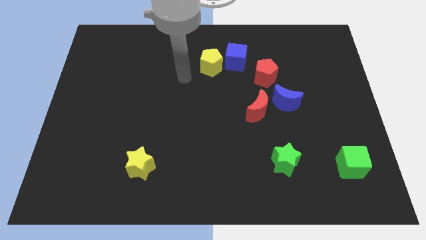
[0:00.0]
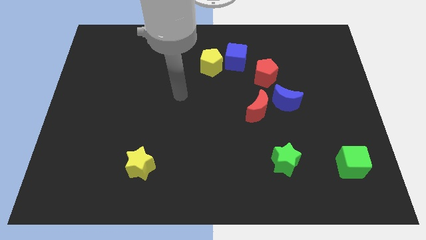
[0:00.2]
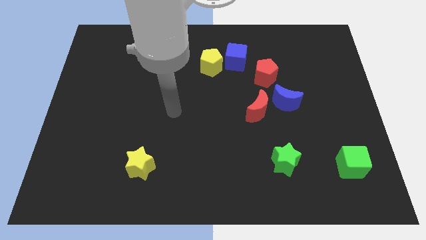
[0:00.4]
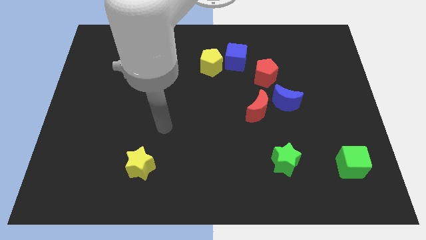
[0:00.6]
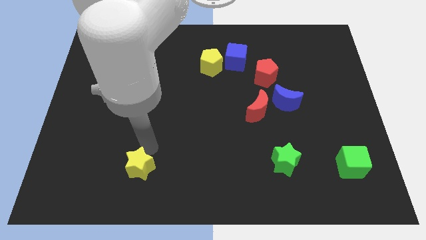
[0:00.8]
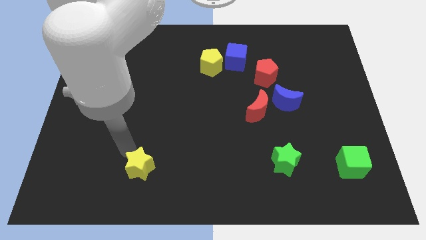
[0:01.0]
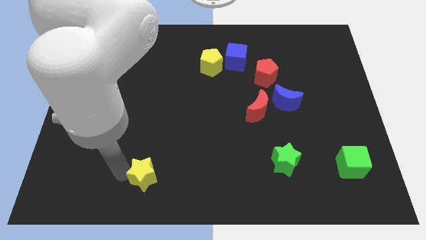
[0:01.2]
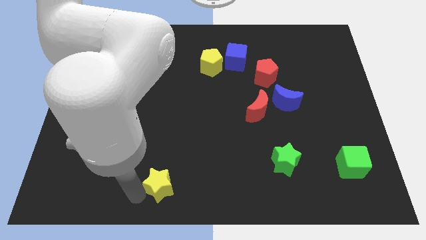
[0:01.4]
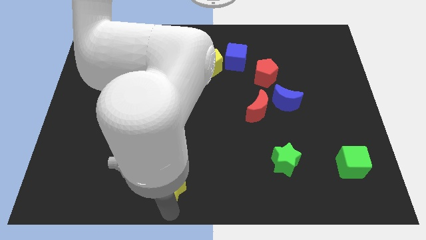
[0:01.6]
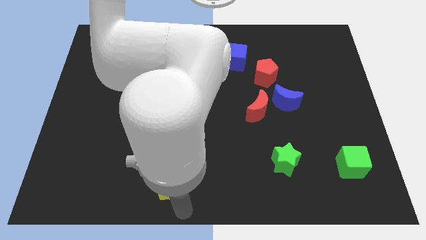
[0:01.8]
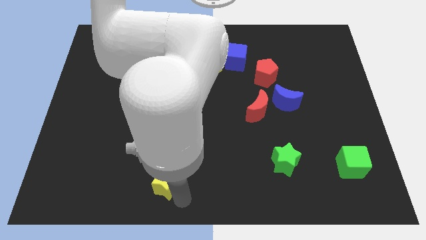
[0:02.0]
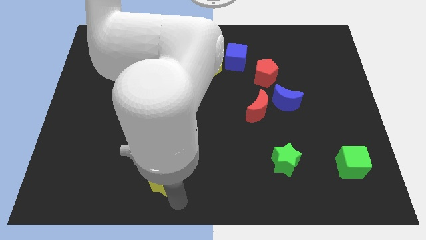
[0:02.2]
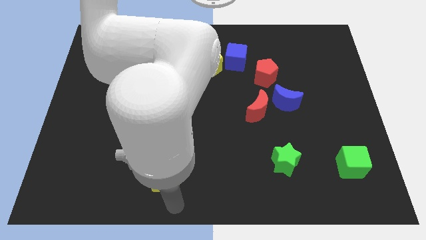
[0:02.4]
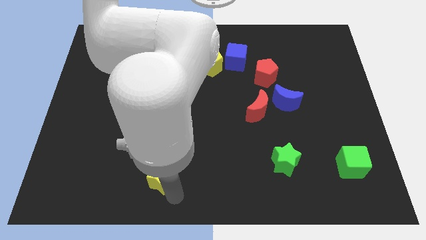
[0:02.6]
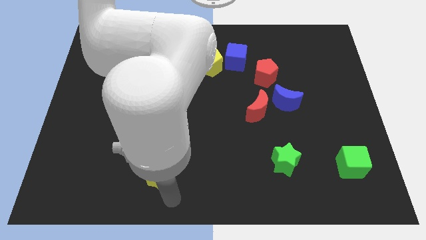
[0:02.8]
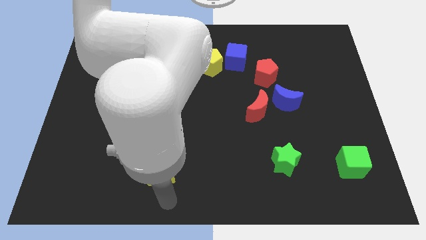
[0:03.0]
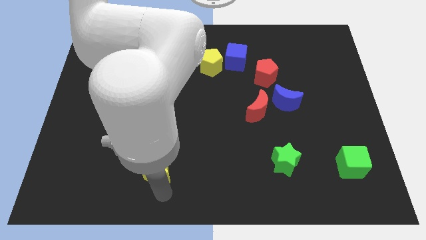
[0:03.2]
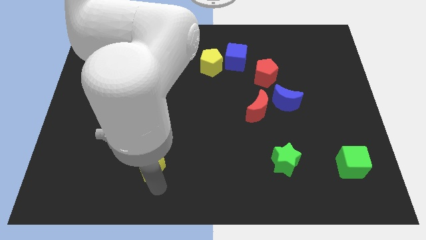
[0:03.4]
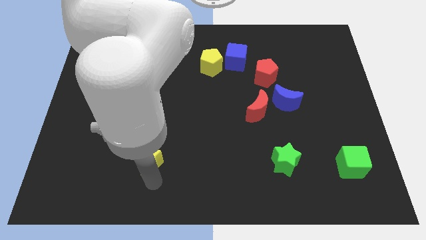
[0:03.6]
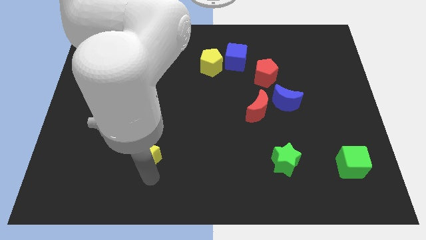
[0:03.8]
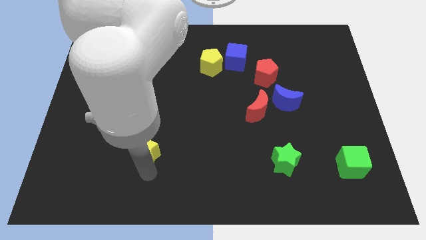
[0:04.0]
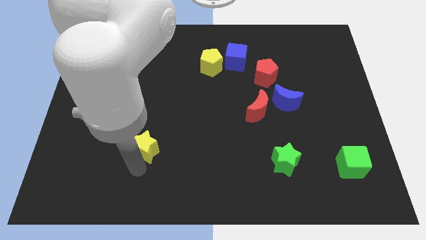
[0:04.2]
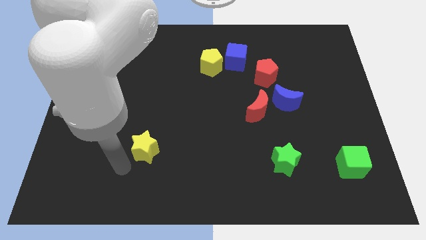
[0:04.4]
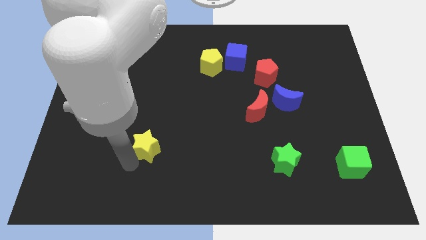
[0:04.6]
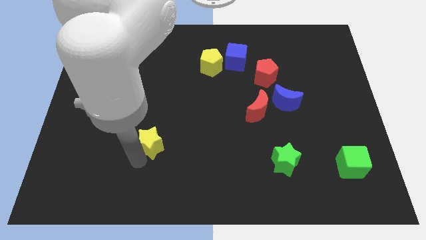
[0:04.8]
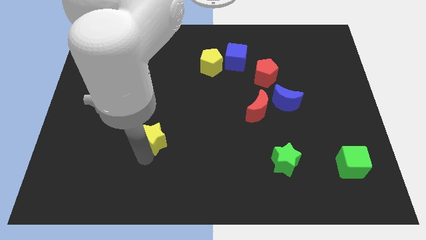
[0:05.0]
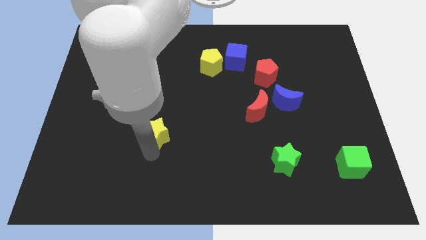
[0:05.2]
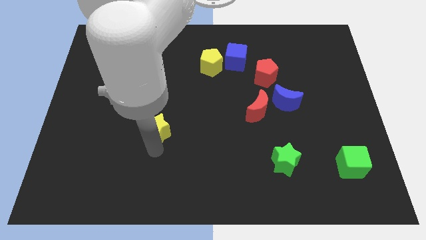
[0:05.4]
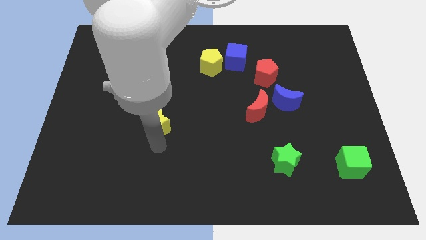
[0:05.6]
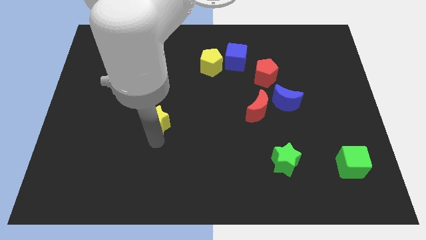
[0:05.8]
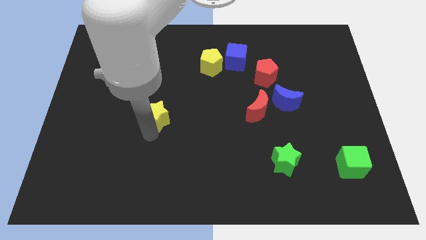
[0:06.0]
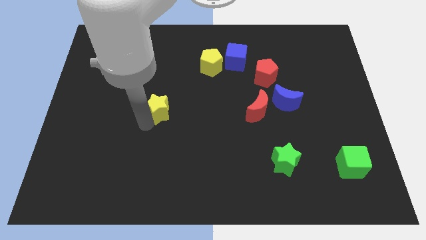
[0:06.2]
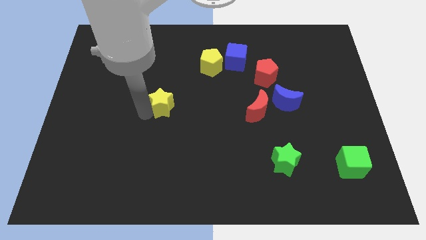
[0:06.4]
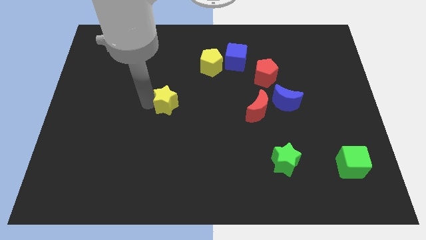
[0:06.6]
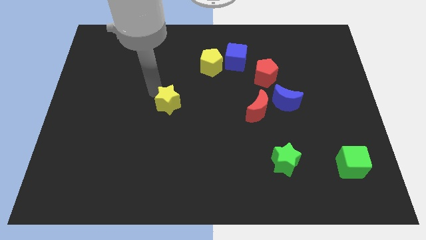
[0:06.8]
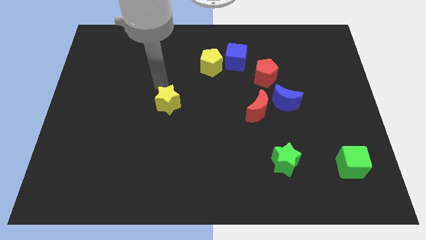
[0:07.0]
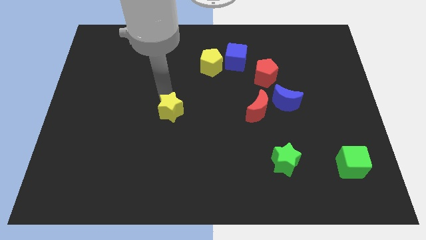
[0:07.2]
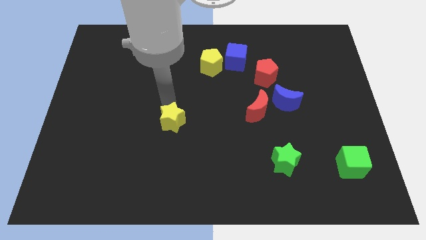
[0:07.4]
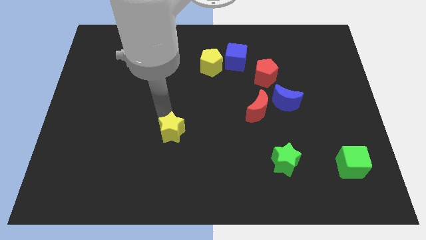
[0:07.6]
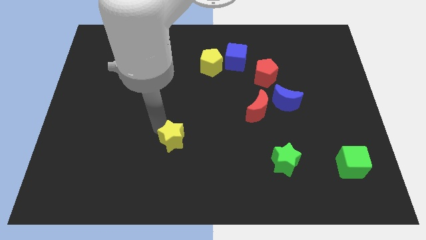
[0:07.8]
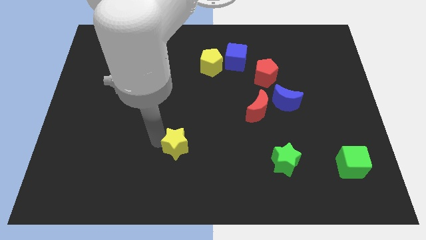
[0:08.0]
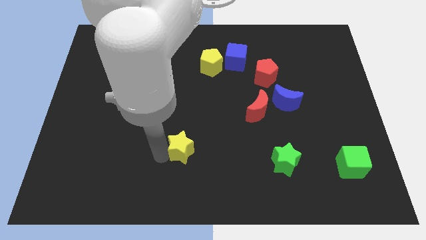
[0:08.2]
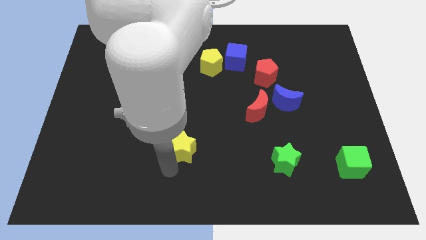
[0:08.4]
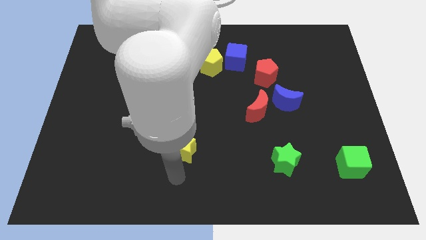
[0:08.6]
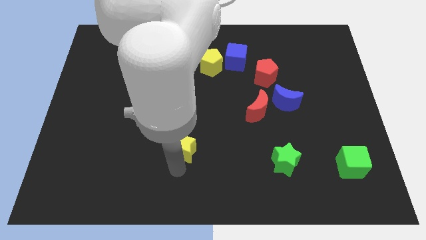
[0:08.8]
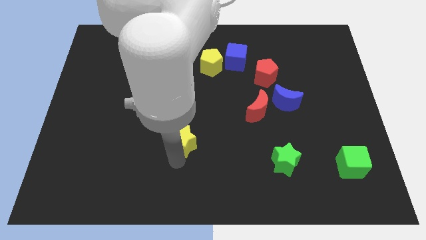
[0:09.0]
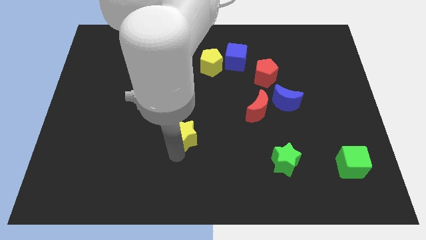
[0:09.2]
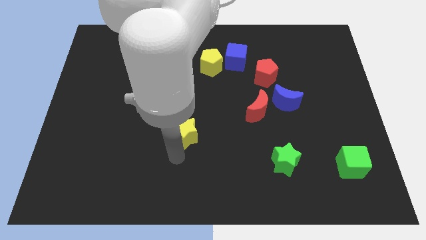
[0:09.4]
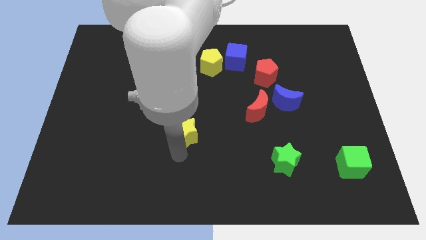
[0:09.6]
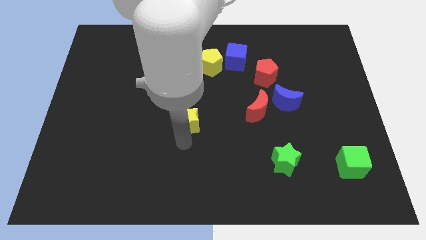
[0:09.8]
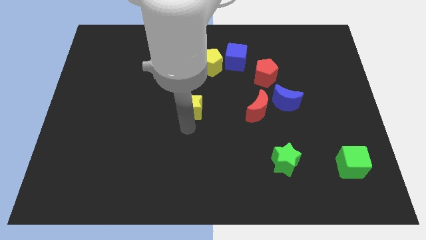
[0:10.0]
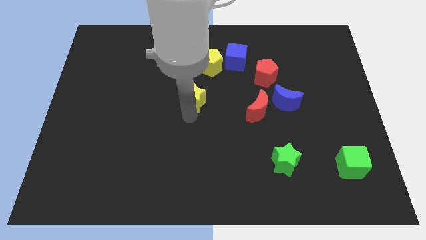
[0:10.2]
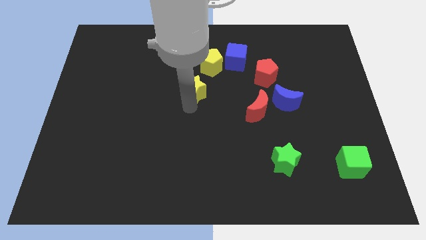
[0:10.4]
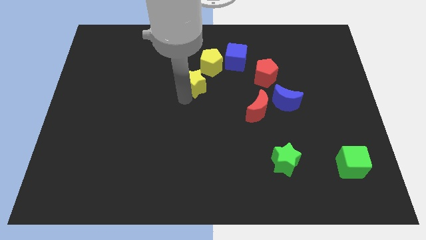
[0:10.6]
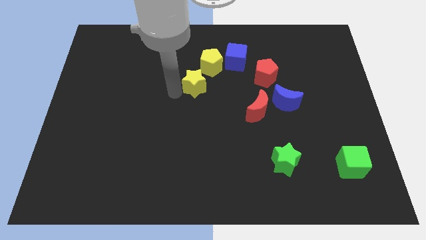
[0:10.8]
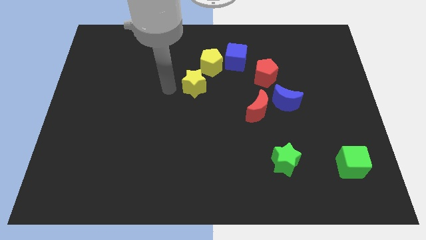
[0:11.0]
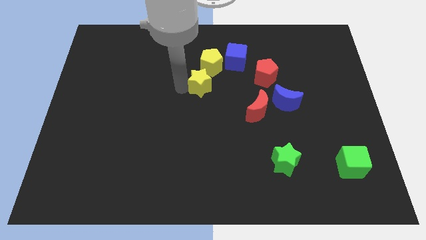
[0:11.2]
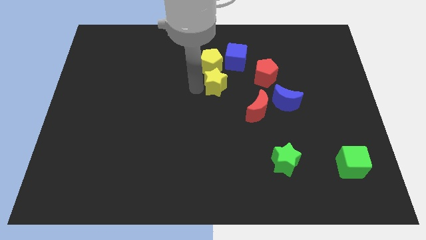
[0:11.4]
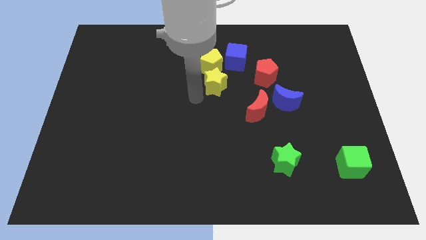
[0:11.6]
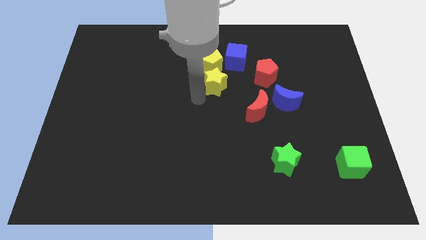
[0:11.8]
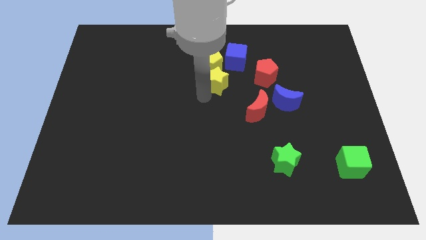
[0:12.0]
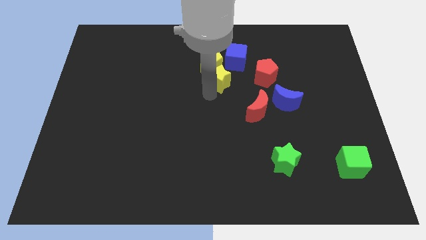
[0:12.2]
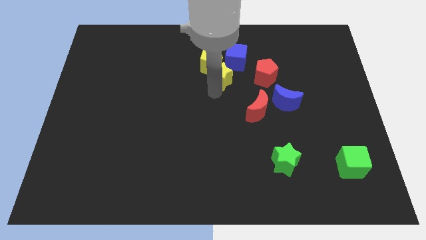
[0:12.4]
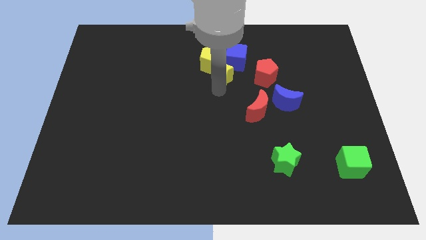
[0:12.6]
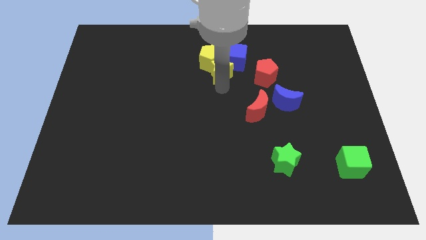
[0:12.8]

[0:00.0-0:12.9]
push the yellow star next to the blue cube

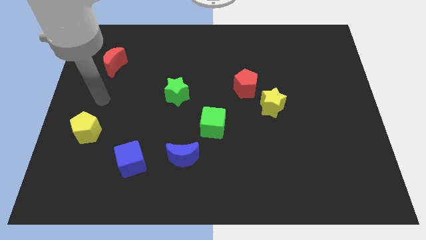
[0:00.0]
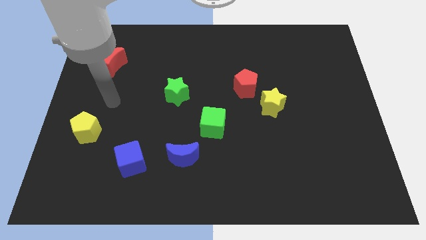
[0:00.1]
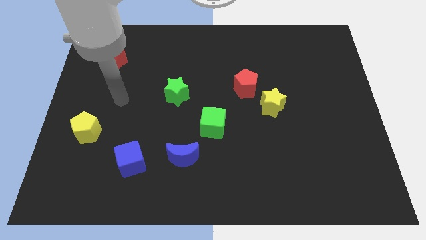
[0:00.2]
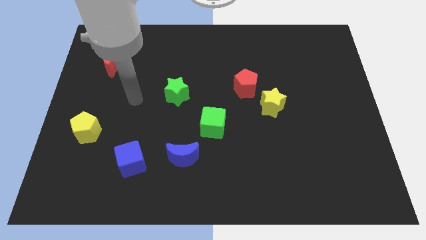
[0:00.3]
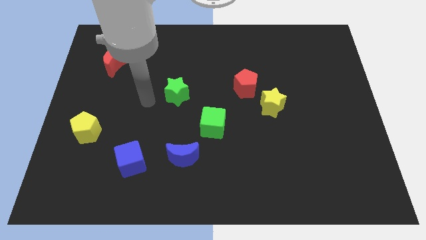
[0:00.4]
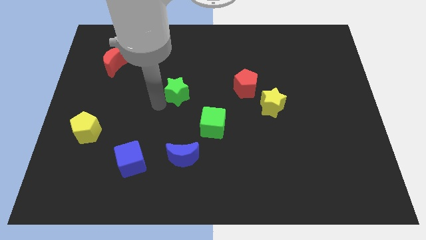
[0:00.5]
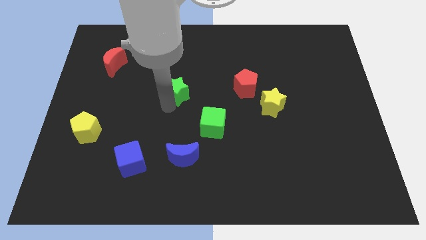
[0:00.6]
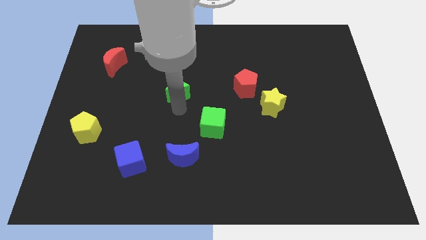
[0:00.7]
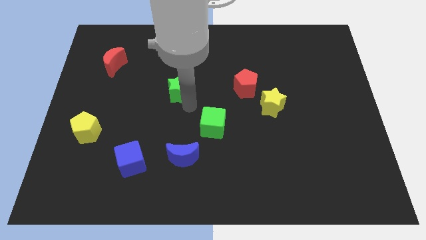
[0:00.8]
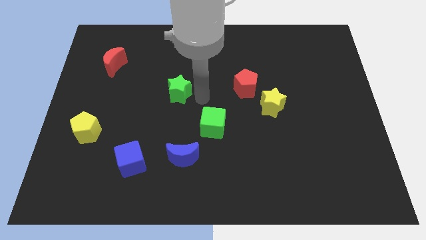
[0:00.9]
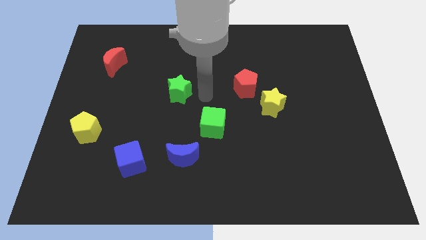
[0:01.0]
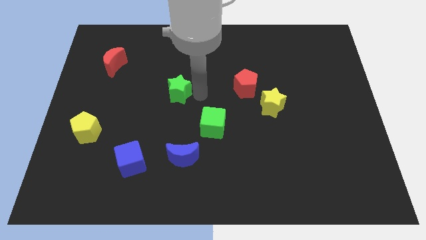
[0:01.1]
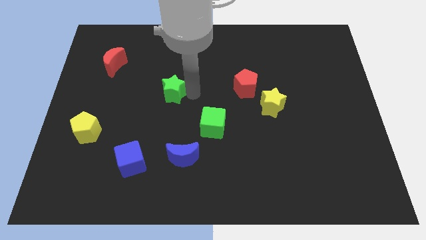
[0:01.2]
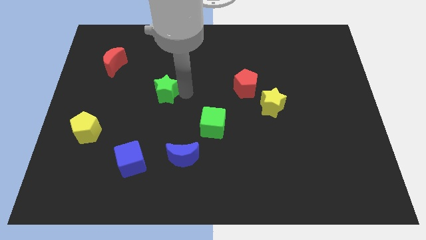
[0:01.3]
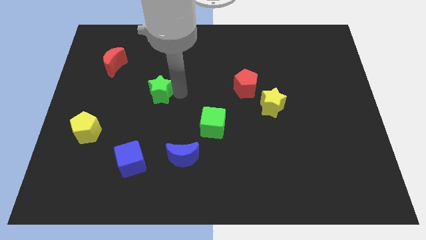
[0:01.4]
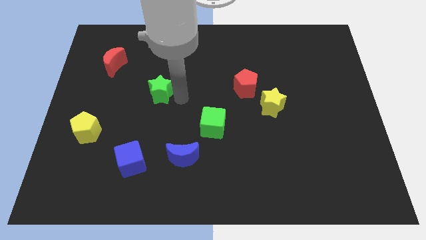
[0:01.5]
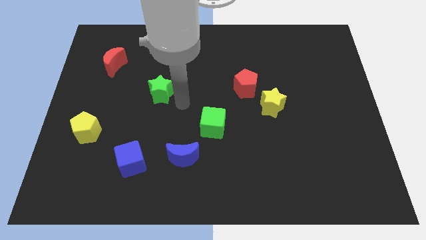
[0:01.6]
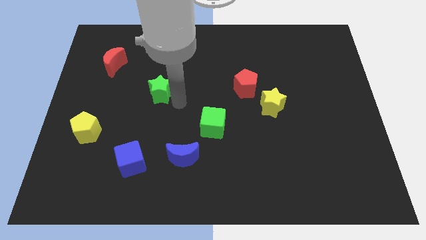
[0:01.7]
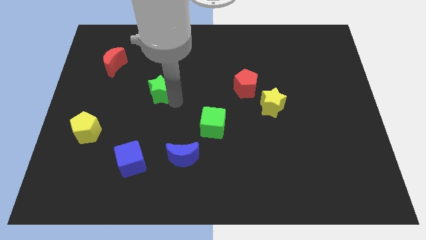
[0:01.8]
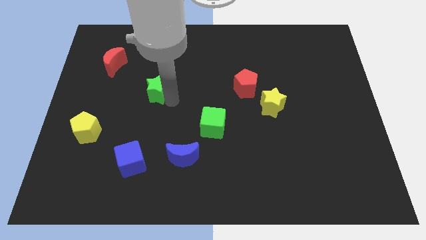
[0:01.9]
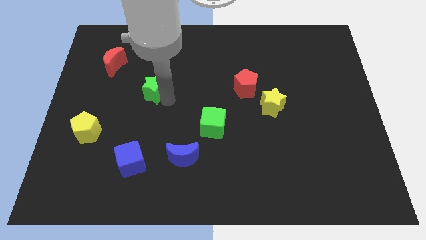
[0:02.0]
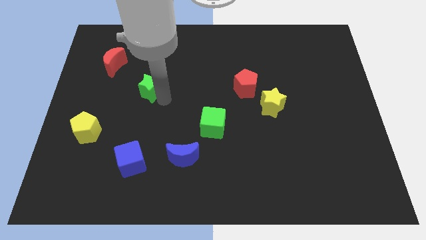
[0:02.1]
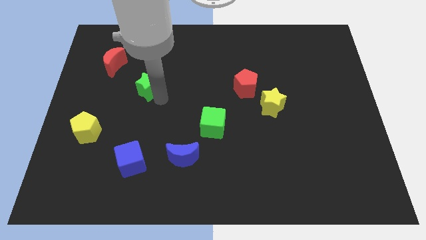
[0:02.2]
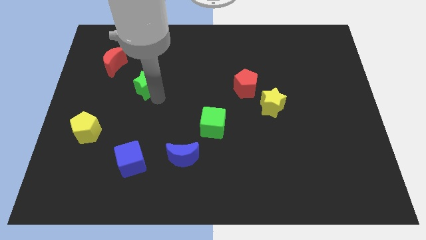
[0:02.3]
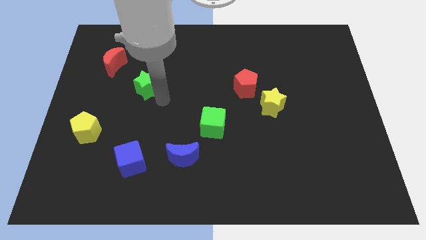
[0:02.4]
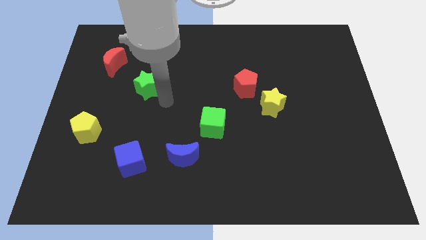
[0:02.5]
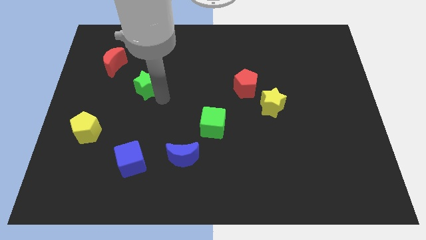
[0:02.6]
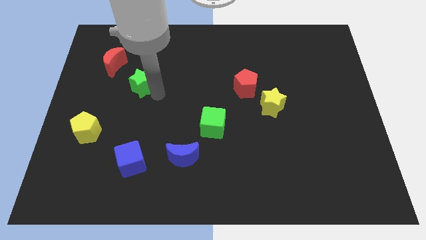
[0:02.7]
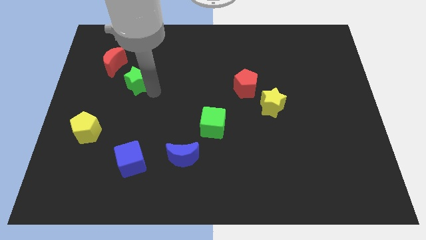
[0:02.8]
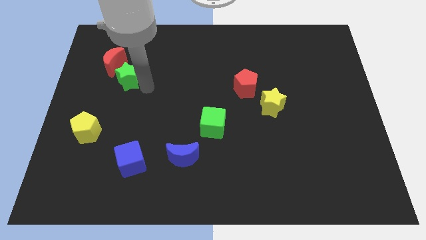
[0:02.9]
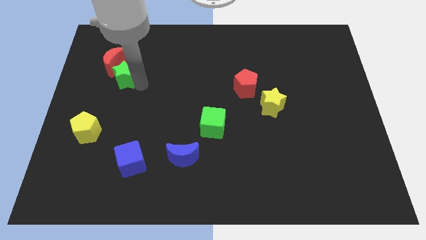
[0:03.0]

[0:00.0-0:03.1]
slide the green star towards the red moon
